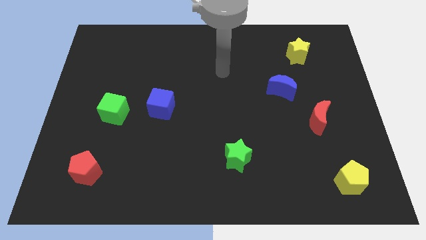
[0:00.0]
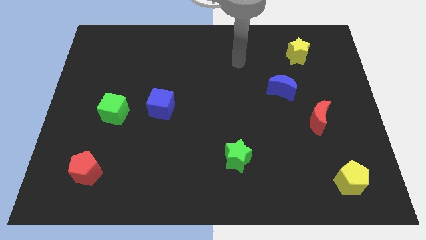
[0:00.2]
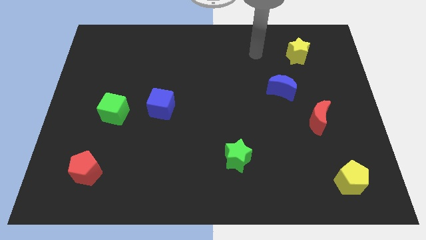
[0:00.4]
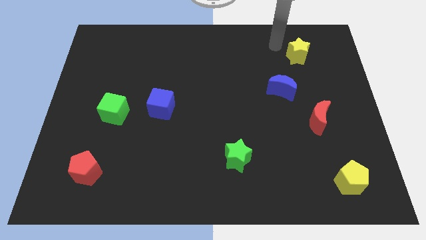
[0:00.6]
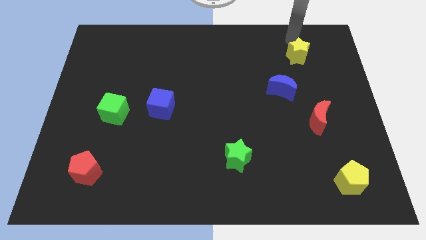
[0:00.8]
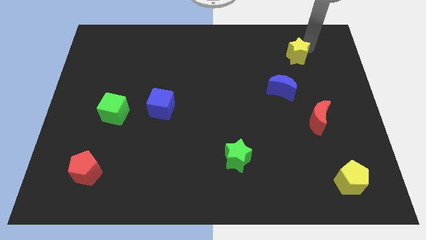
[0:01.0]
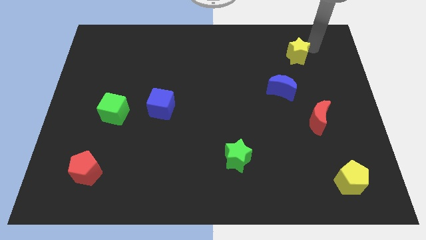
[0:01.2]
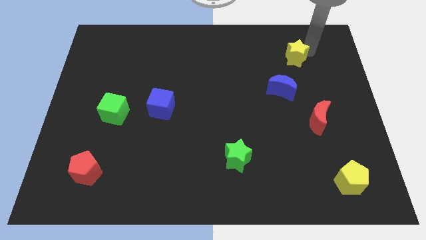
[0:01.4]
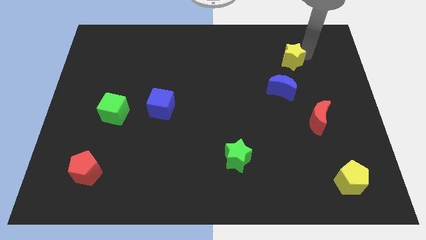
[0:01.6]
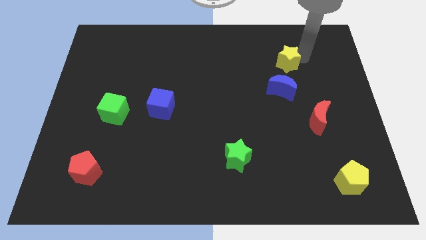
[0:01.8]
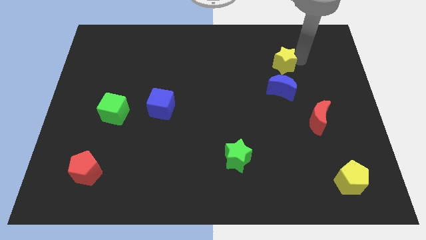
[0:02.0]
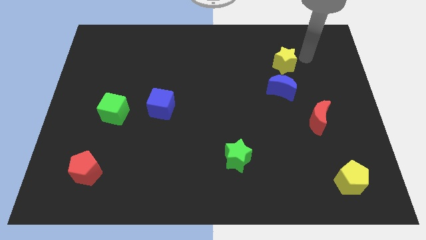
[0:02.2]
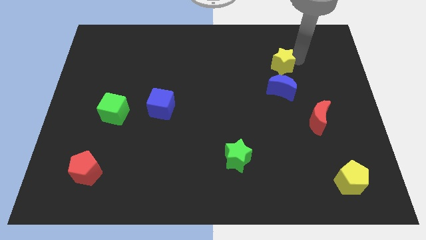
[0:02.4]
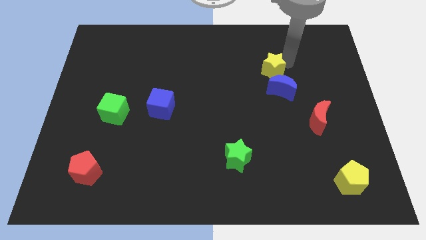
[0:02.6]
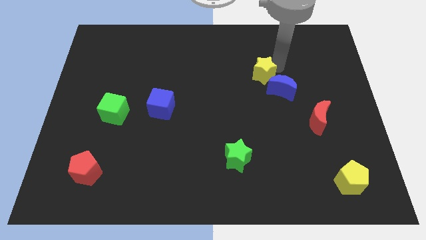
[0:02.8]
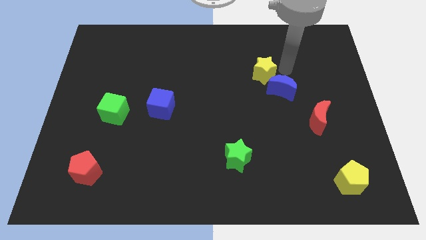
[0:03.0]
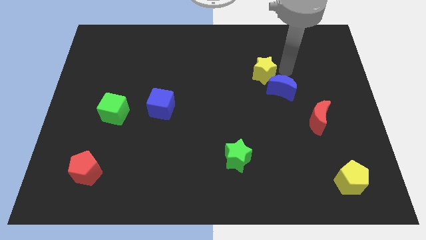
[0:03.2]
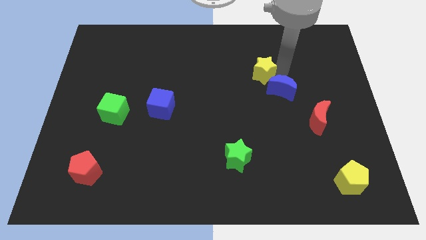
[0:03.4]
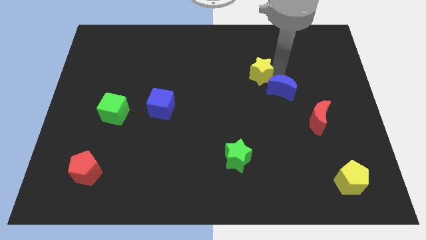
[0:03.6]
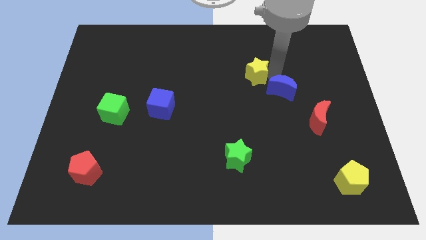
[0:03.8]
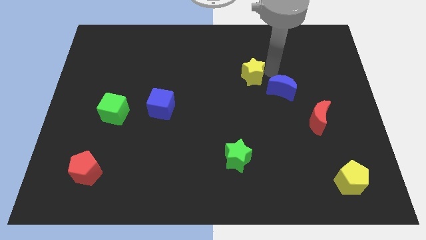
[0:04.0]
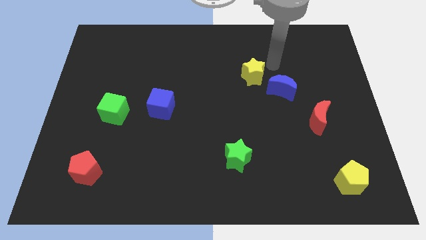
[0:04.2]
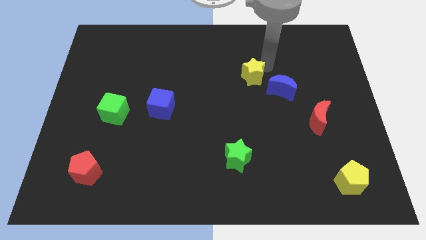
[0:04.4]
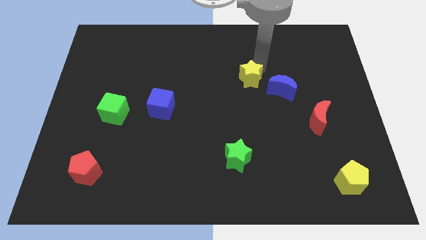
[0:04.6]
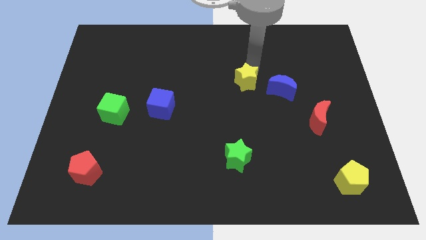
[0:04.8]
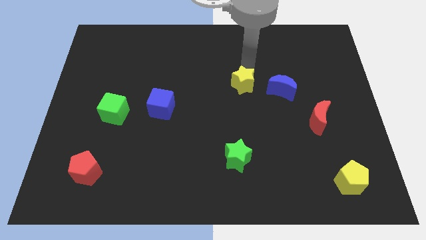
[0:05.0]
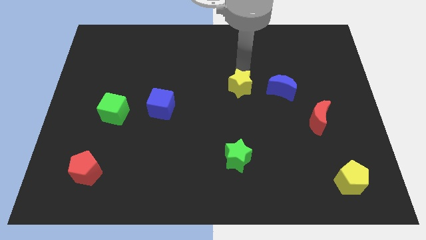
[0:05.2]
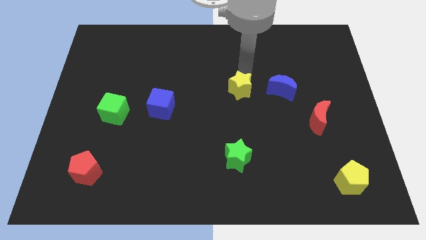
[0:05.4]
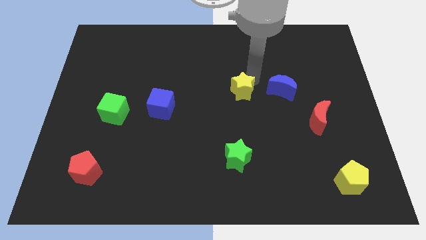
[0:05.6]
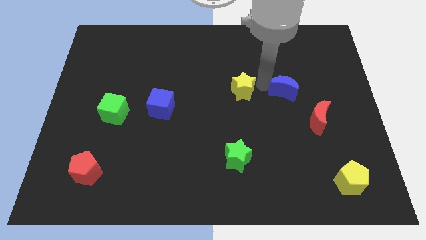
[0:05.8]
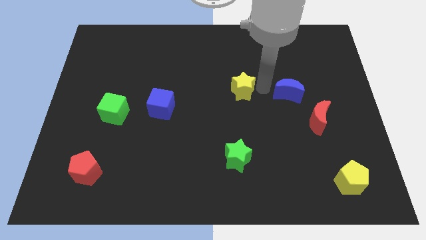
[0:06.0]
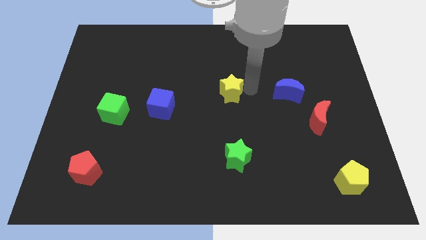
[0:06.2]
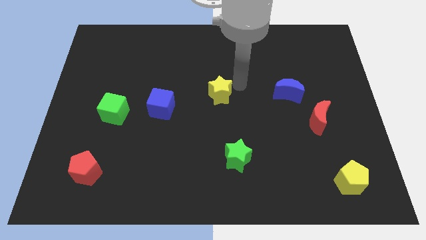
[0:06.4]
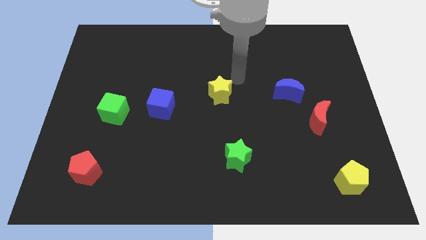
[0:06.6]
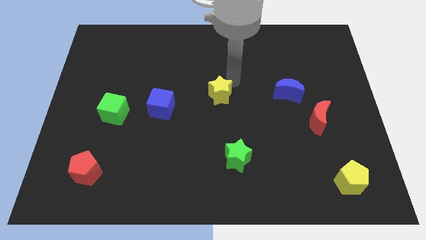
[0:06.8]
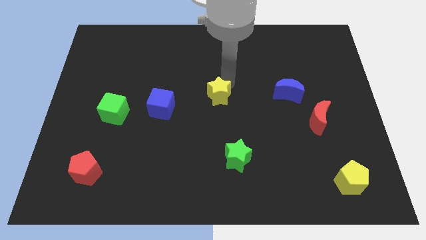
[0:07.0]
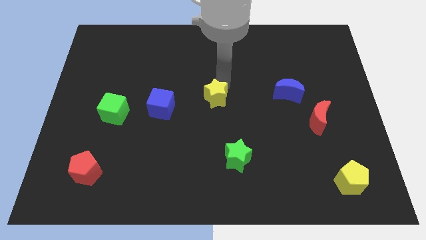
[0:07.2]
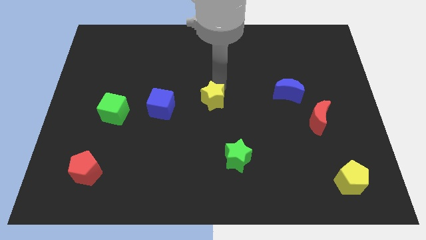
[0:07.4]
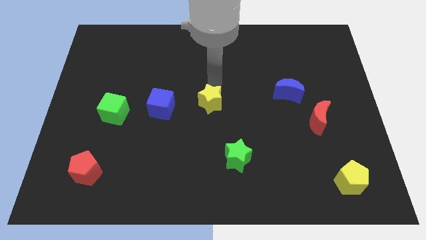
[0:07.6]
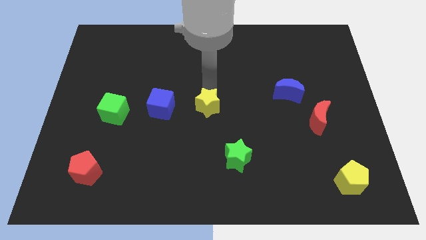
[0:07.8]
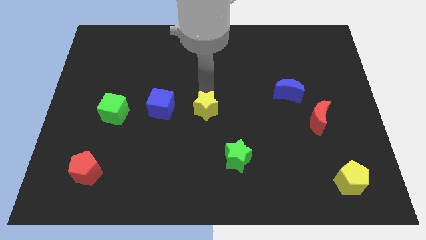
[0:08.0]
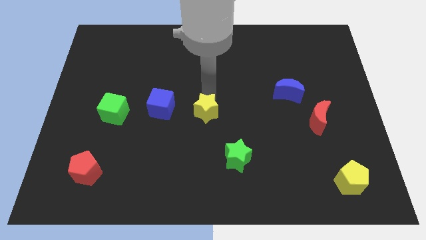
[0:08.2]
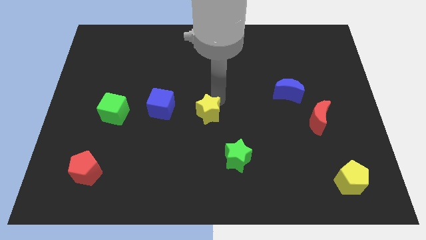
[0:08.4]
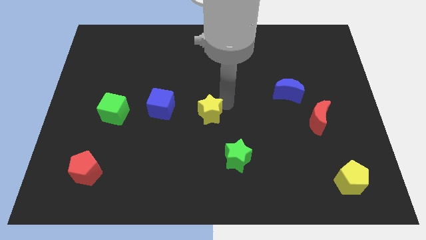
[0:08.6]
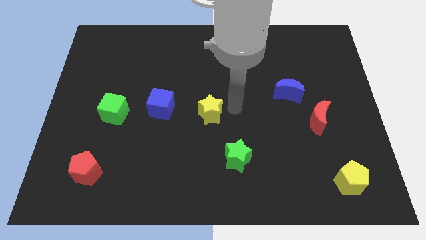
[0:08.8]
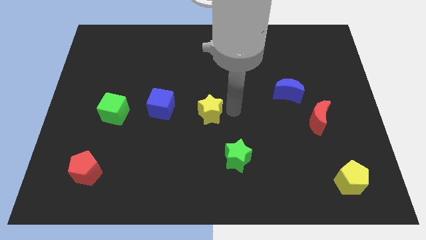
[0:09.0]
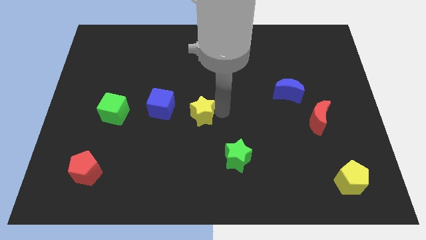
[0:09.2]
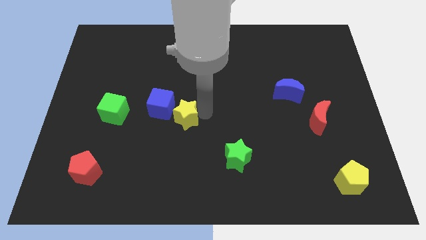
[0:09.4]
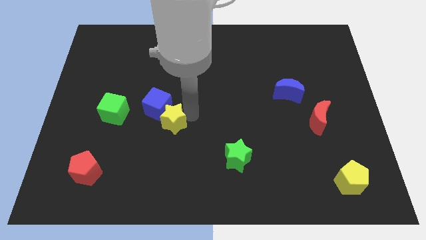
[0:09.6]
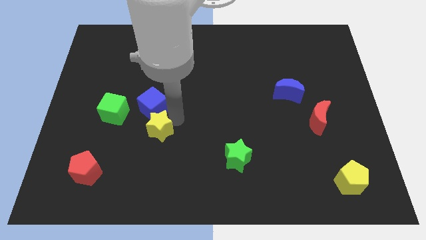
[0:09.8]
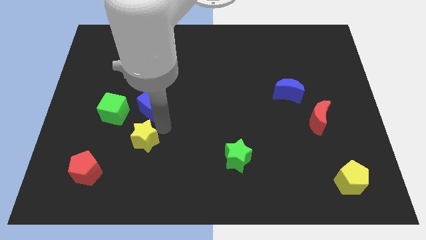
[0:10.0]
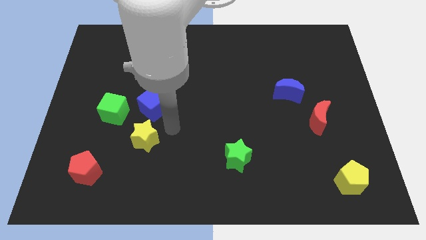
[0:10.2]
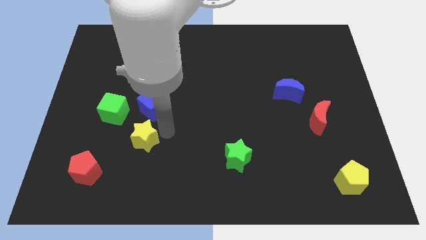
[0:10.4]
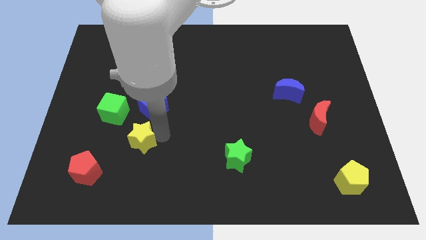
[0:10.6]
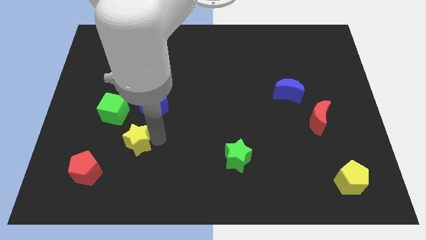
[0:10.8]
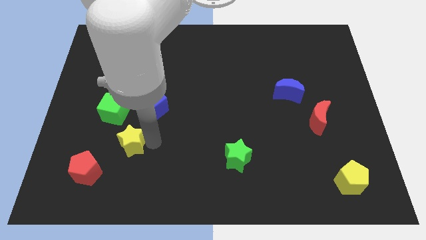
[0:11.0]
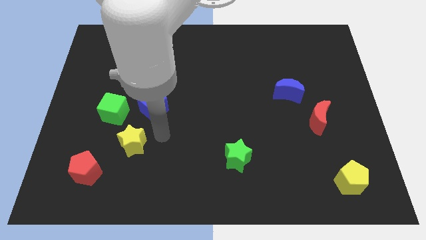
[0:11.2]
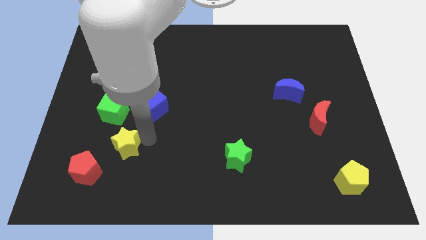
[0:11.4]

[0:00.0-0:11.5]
push the yellow star below the green cube

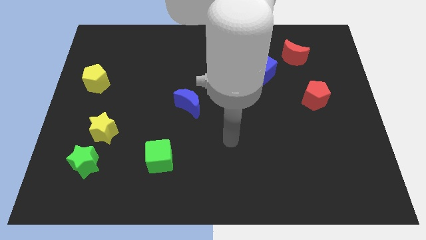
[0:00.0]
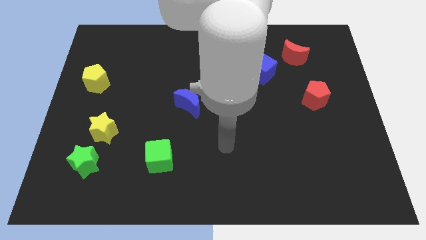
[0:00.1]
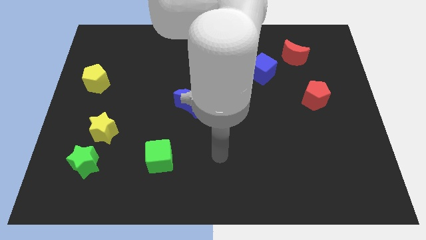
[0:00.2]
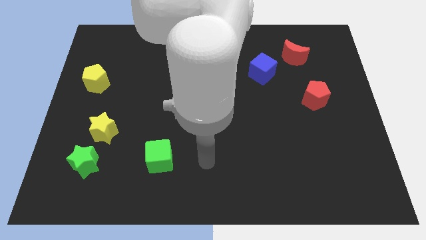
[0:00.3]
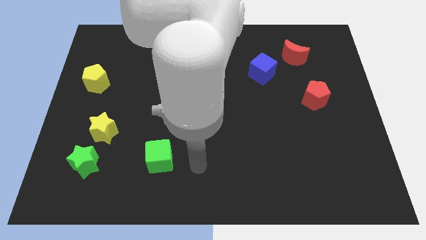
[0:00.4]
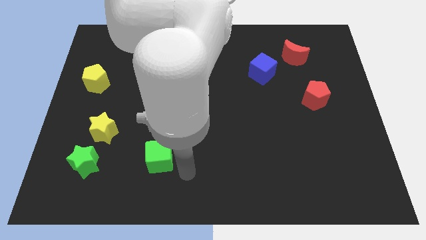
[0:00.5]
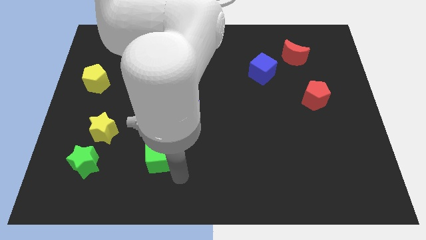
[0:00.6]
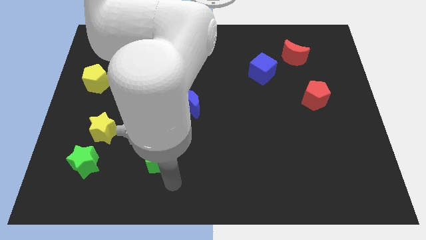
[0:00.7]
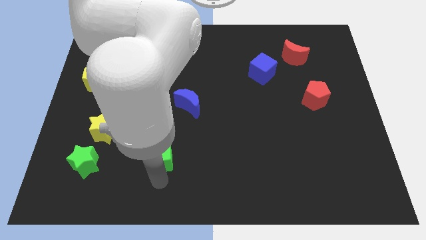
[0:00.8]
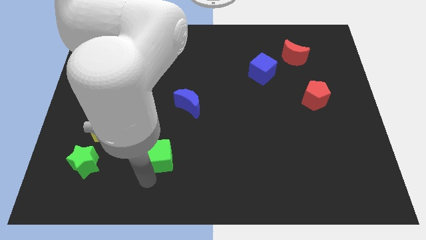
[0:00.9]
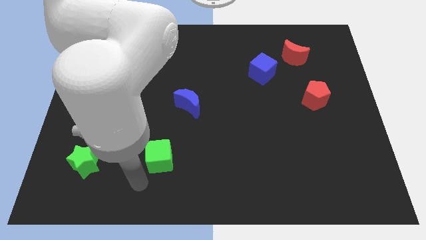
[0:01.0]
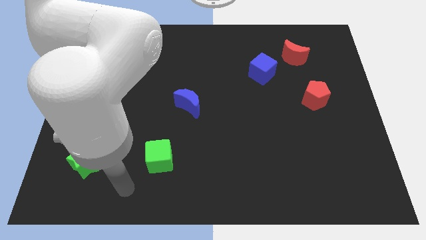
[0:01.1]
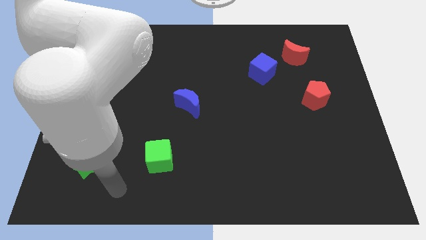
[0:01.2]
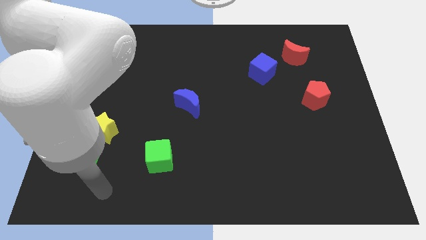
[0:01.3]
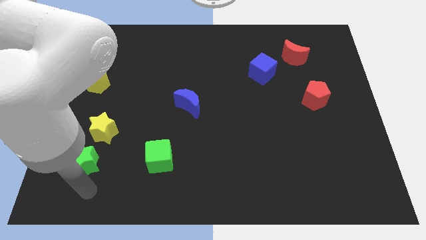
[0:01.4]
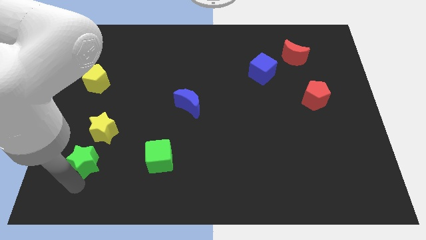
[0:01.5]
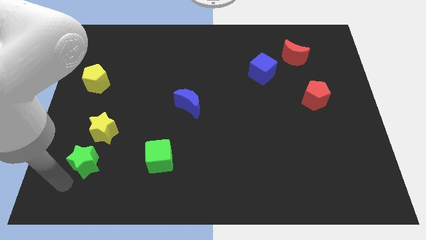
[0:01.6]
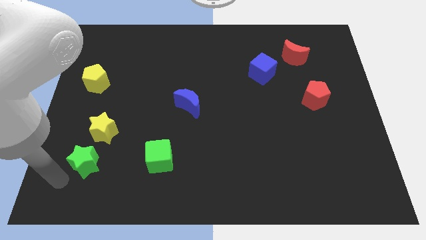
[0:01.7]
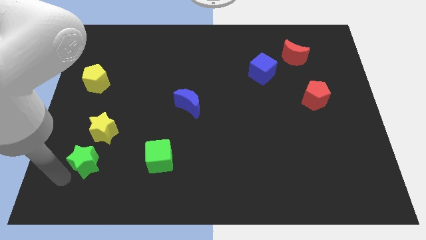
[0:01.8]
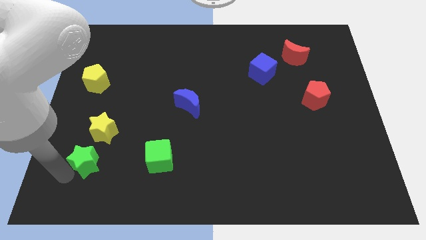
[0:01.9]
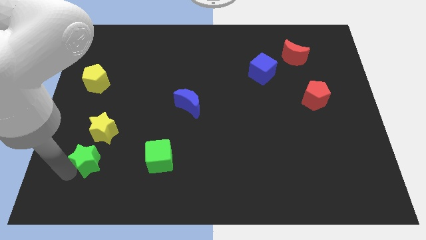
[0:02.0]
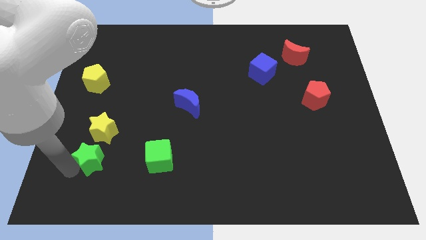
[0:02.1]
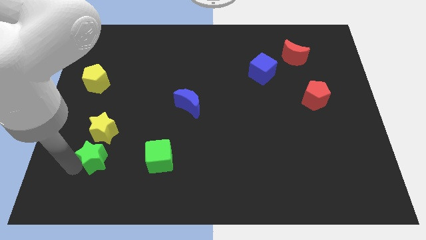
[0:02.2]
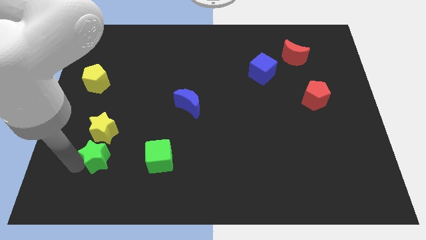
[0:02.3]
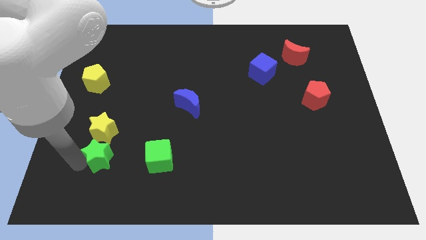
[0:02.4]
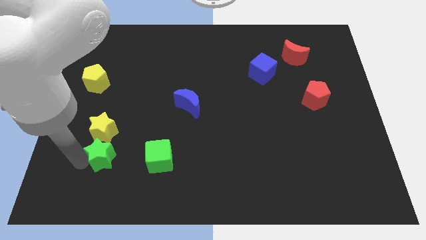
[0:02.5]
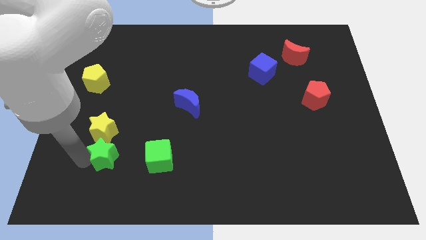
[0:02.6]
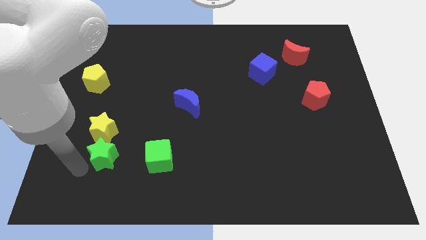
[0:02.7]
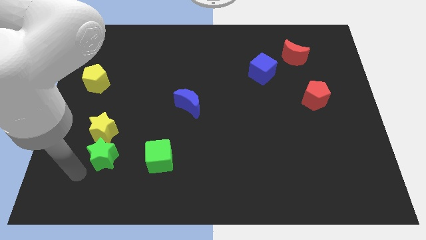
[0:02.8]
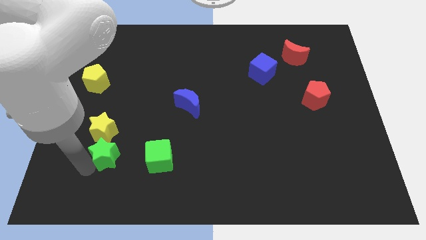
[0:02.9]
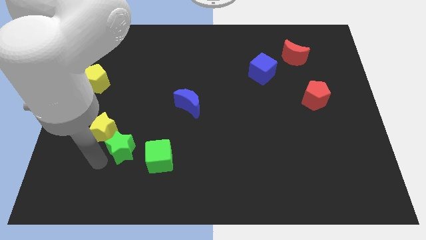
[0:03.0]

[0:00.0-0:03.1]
put the green star right of the yellow star
